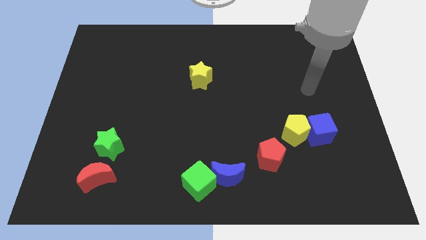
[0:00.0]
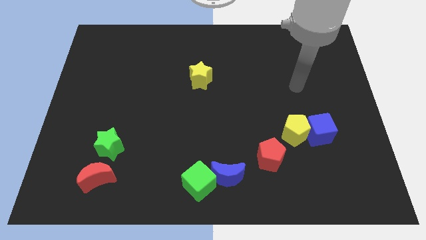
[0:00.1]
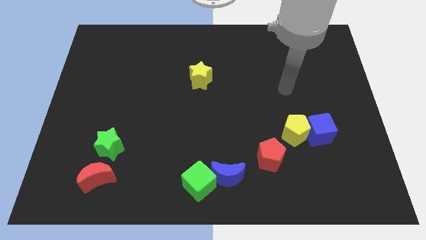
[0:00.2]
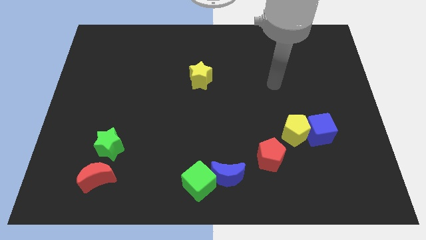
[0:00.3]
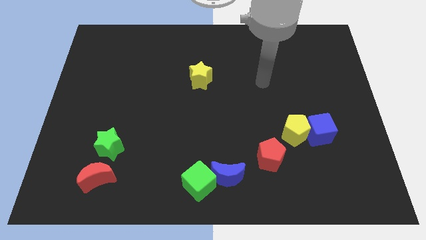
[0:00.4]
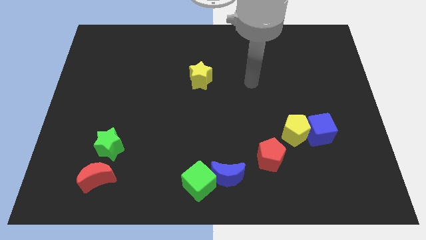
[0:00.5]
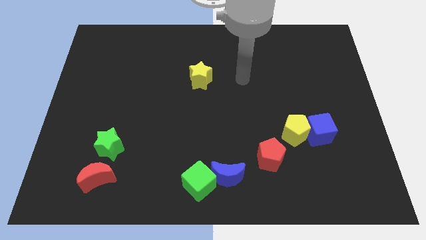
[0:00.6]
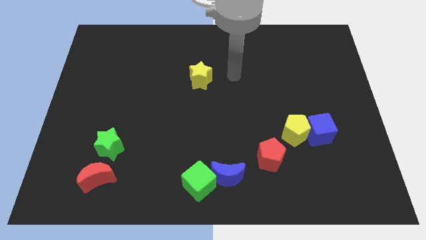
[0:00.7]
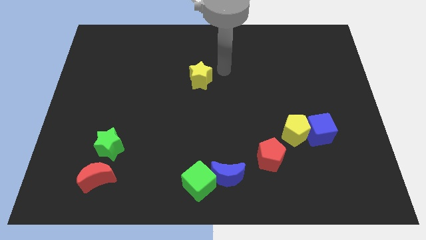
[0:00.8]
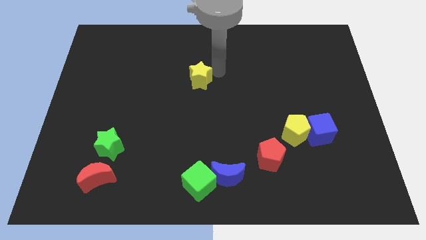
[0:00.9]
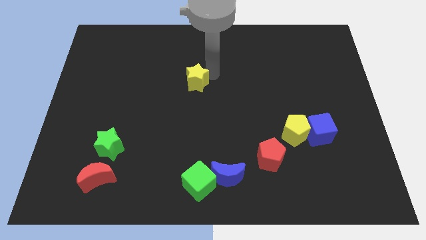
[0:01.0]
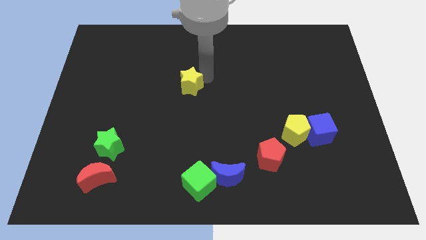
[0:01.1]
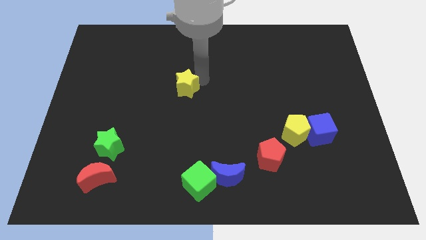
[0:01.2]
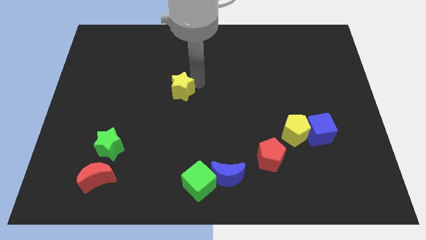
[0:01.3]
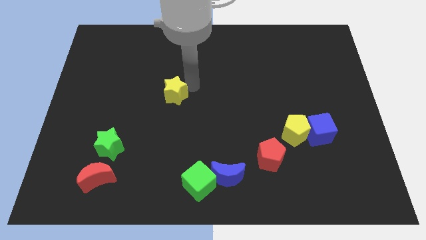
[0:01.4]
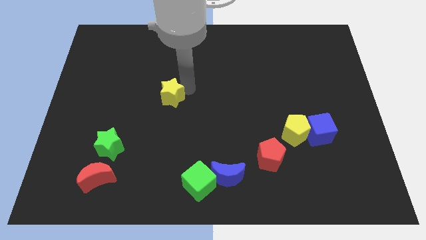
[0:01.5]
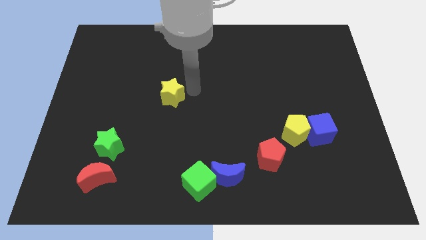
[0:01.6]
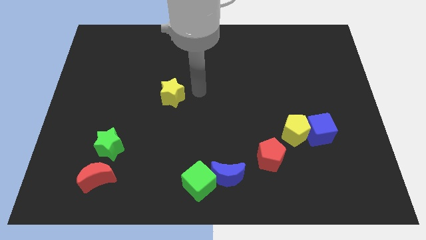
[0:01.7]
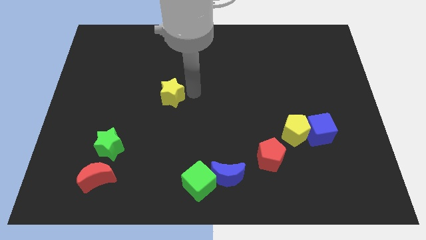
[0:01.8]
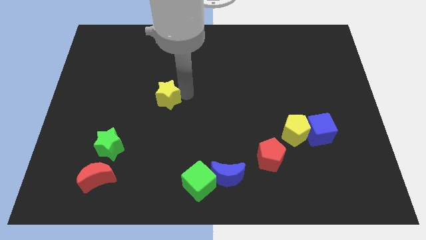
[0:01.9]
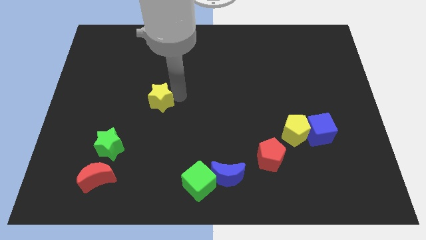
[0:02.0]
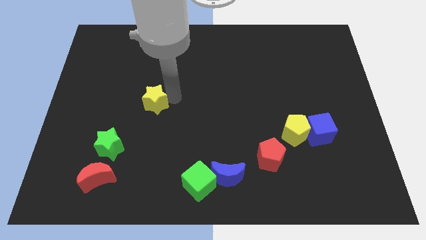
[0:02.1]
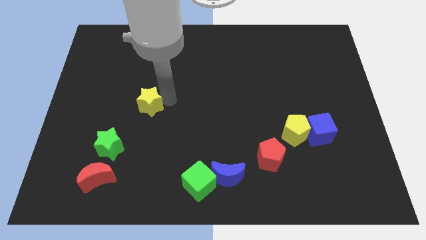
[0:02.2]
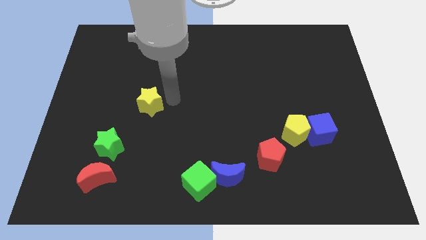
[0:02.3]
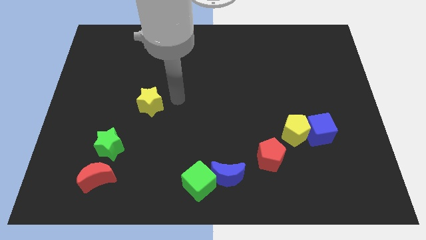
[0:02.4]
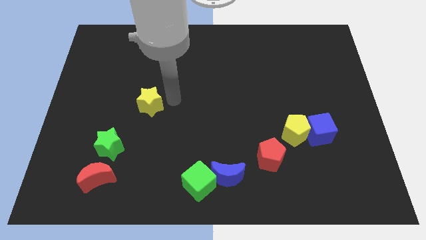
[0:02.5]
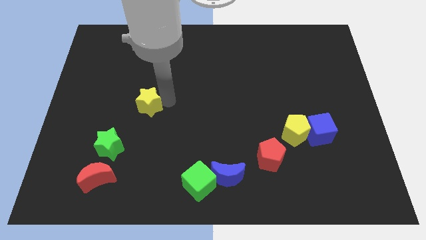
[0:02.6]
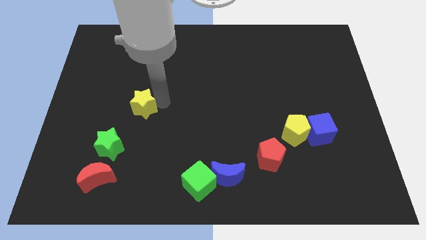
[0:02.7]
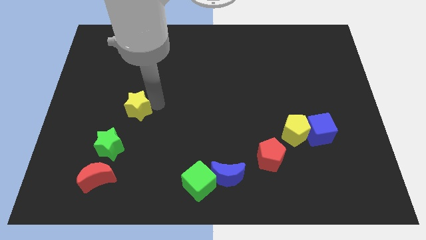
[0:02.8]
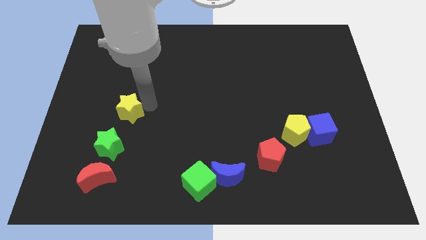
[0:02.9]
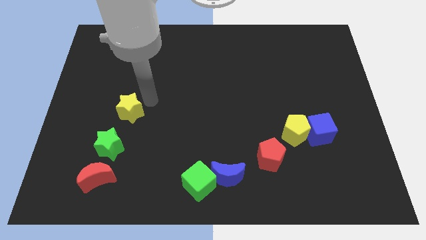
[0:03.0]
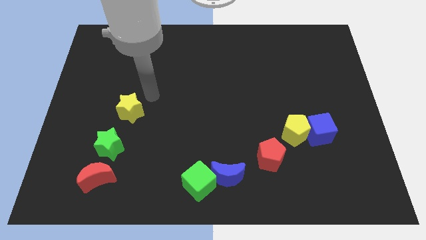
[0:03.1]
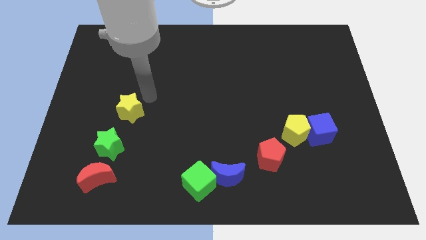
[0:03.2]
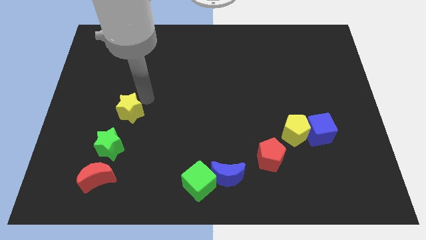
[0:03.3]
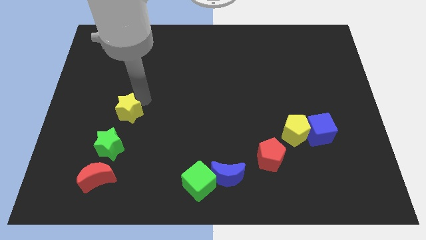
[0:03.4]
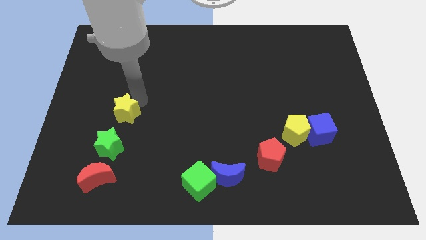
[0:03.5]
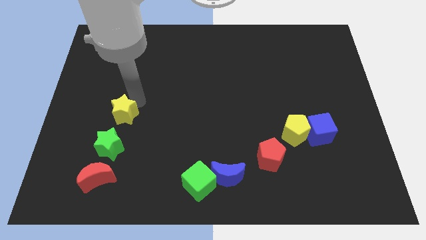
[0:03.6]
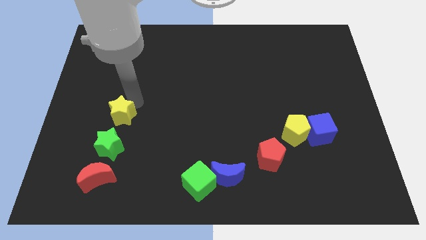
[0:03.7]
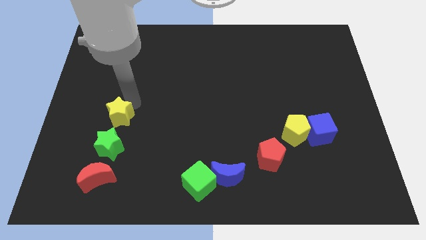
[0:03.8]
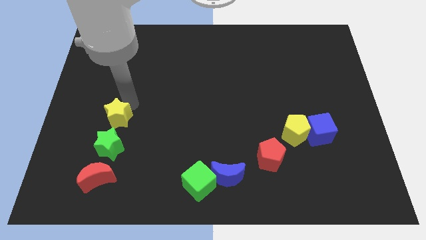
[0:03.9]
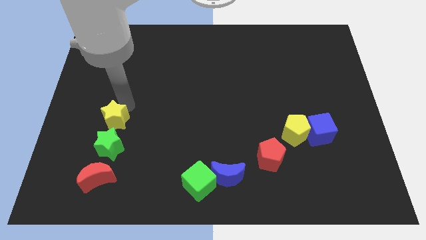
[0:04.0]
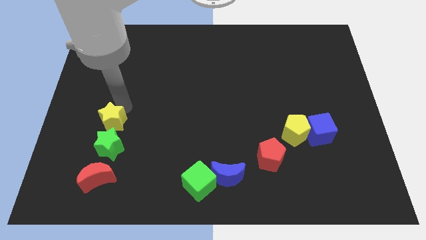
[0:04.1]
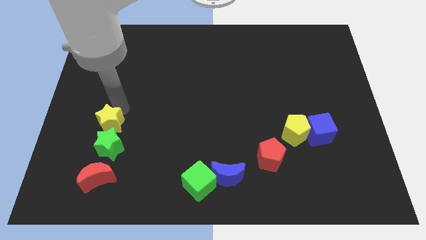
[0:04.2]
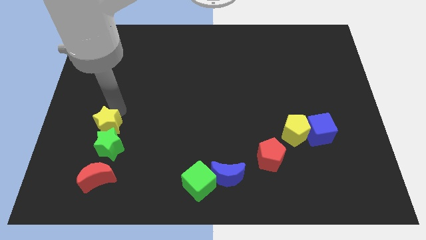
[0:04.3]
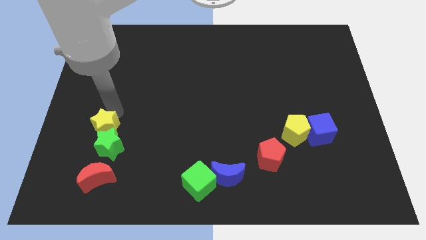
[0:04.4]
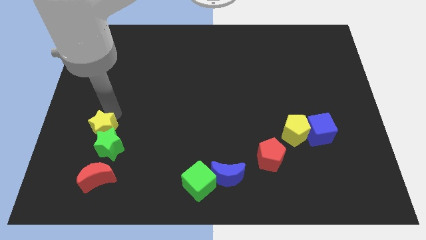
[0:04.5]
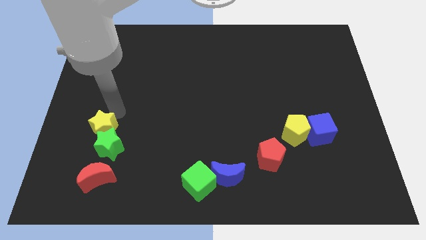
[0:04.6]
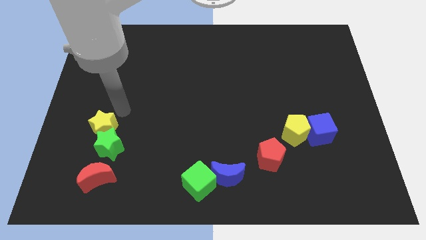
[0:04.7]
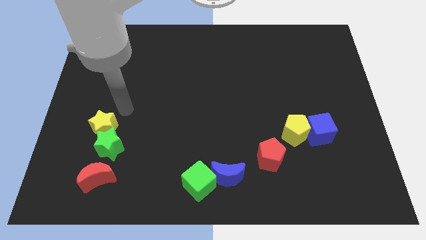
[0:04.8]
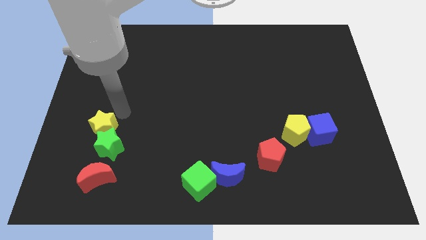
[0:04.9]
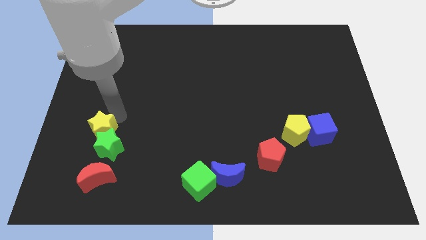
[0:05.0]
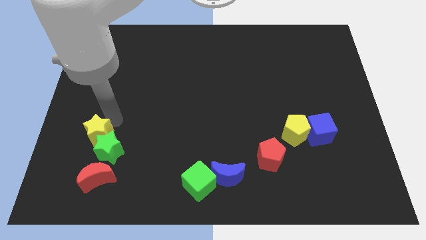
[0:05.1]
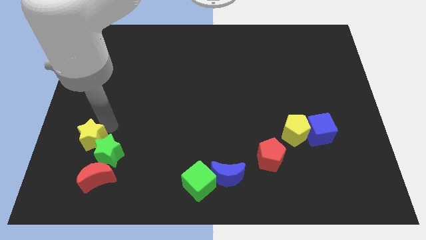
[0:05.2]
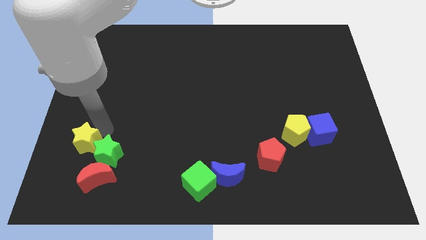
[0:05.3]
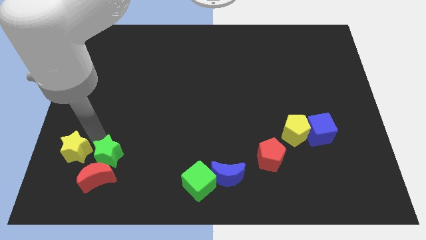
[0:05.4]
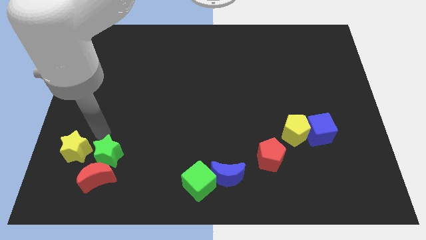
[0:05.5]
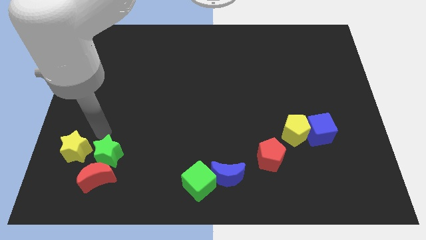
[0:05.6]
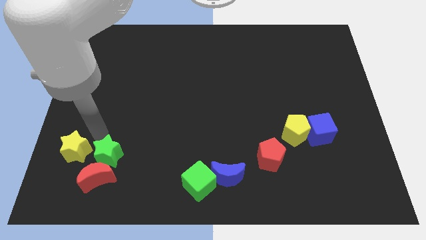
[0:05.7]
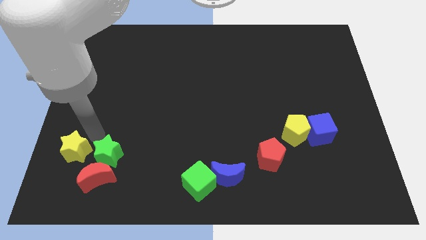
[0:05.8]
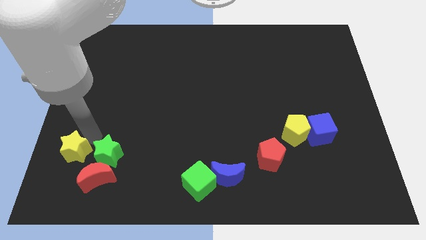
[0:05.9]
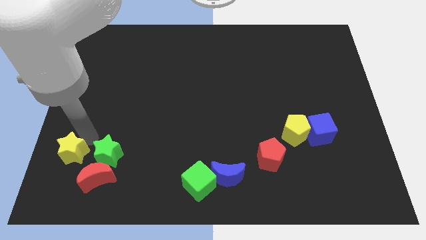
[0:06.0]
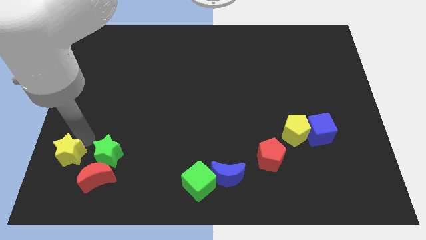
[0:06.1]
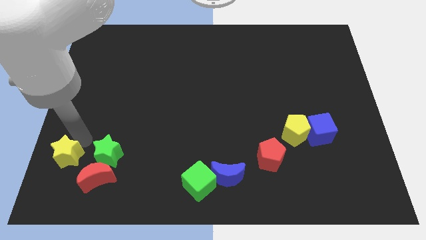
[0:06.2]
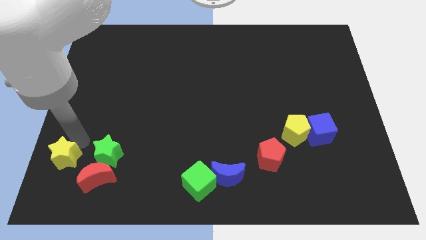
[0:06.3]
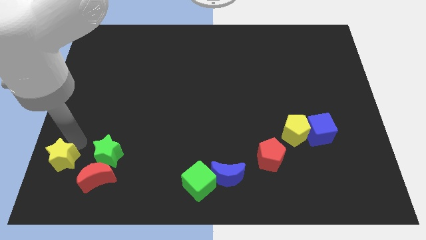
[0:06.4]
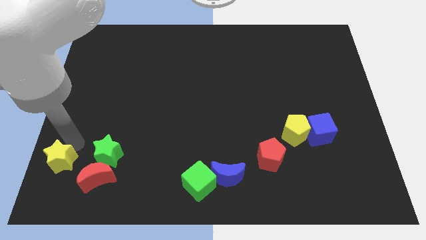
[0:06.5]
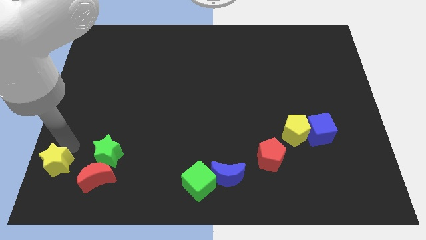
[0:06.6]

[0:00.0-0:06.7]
push the yellow star to the bottom left

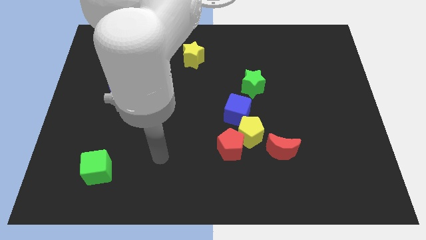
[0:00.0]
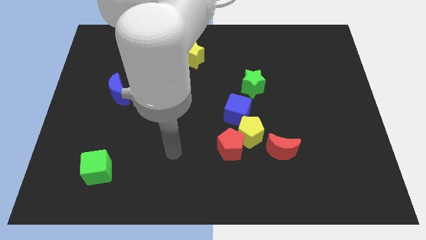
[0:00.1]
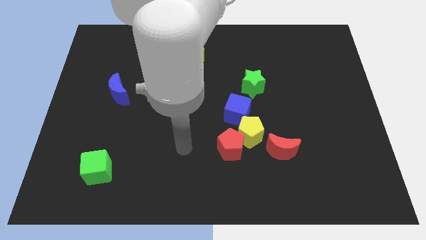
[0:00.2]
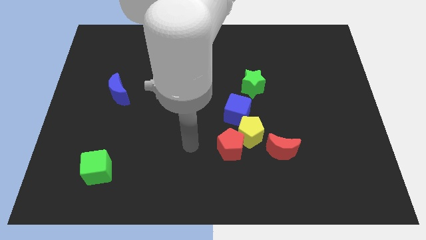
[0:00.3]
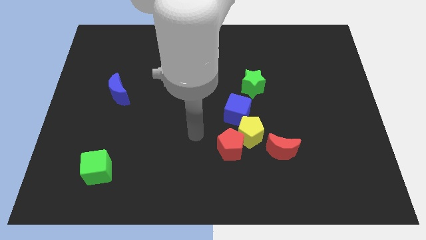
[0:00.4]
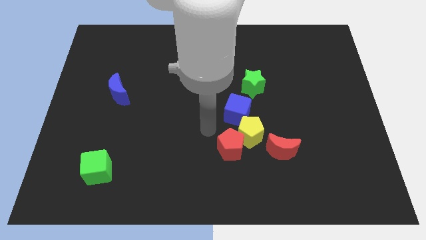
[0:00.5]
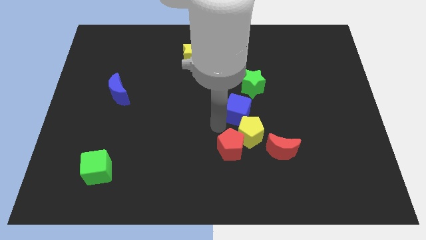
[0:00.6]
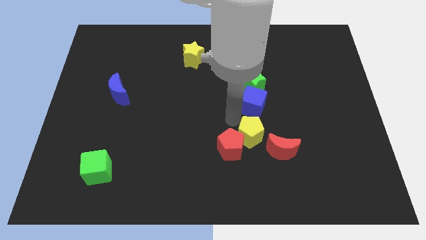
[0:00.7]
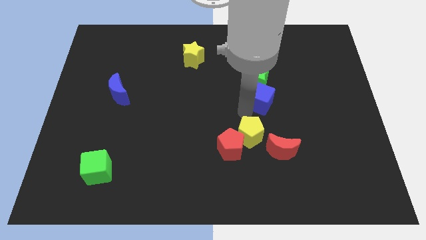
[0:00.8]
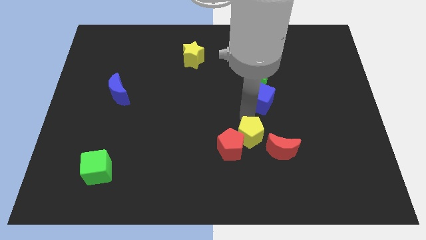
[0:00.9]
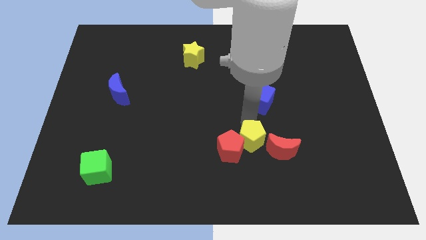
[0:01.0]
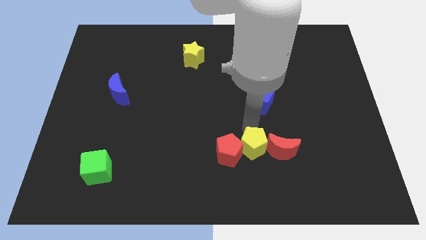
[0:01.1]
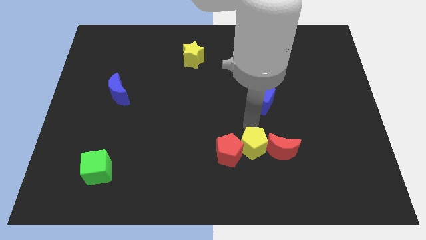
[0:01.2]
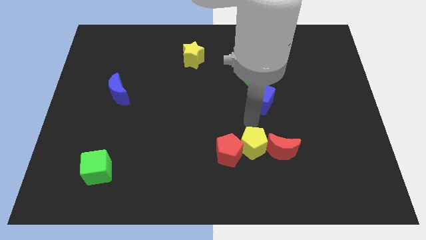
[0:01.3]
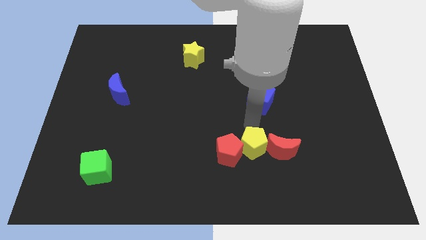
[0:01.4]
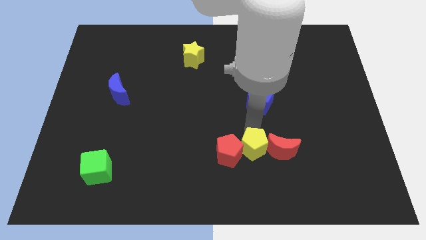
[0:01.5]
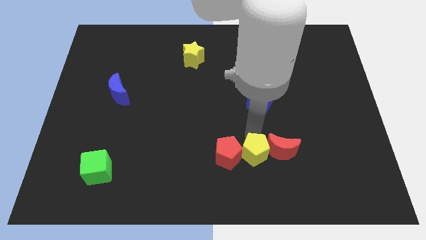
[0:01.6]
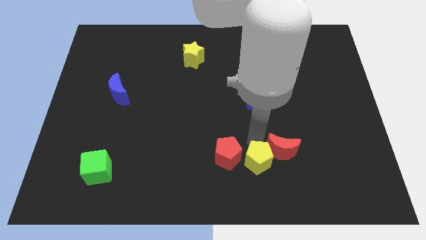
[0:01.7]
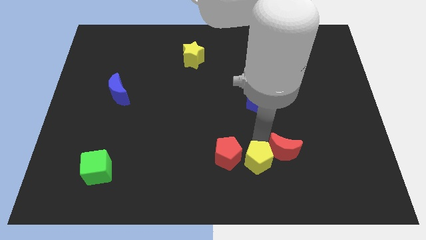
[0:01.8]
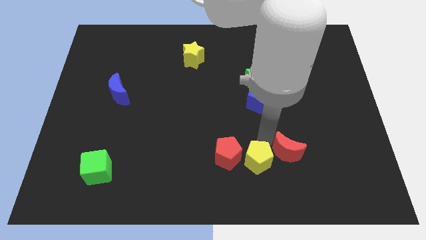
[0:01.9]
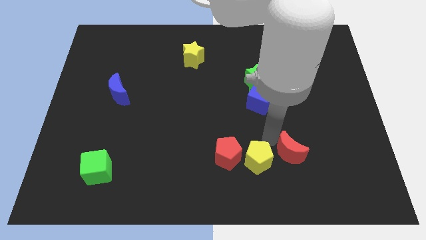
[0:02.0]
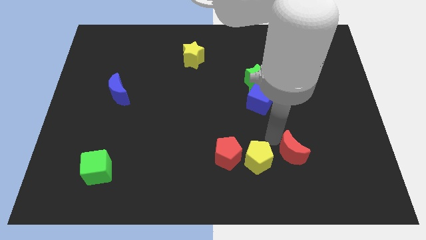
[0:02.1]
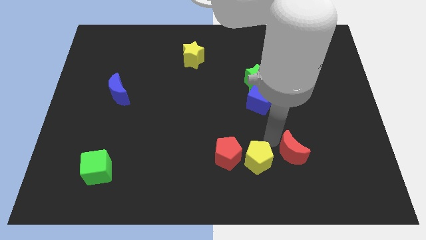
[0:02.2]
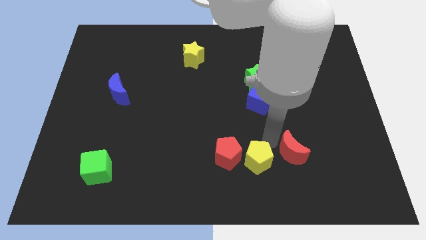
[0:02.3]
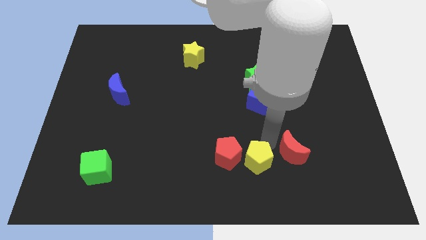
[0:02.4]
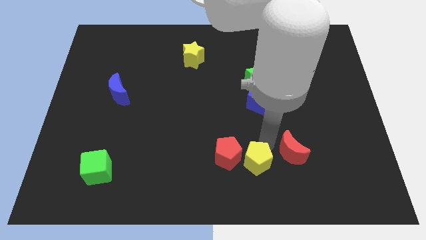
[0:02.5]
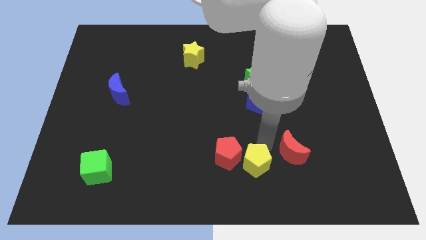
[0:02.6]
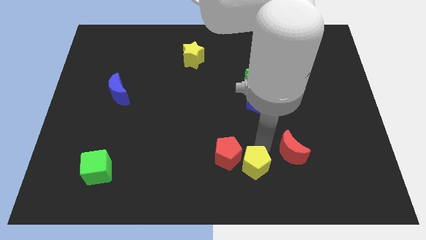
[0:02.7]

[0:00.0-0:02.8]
move the yellow pentagon to the bottom
